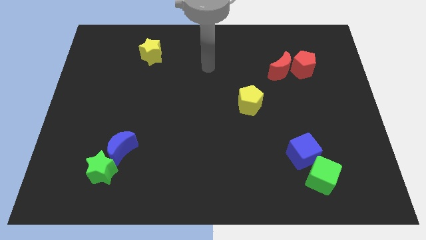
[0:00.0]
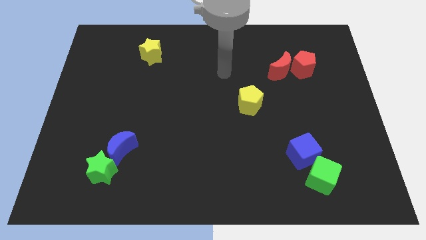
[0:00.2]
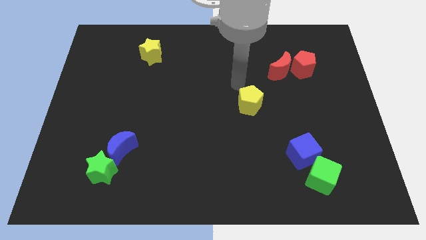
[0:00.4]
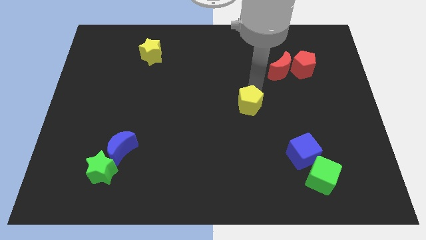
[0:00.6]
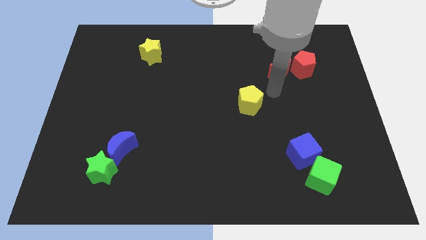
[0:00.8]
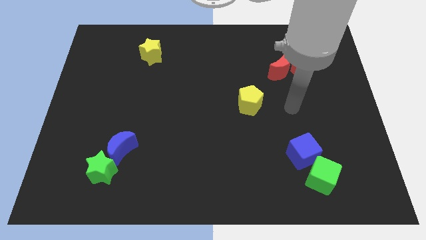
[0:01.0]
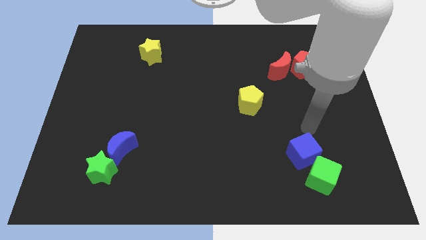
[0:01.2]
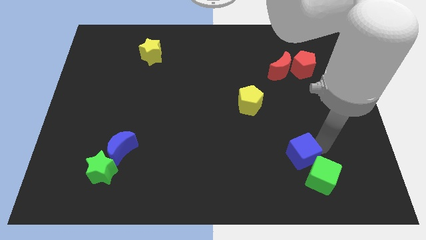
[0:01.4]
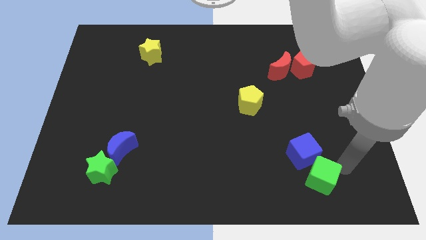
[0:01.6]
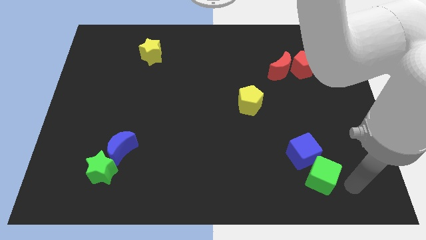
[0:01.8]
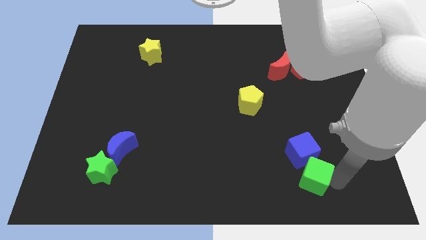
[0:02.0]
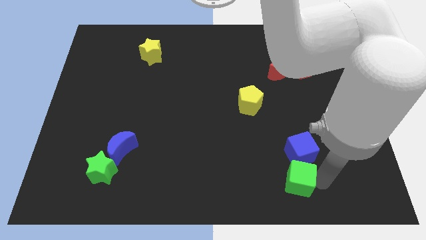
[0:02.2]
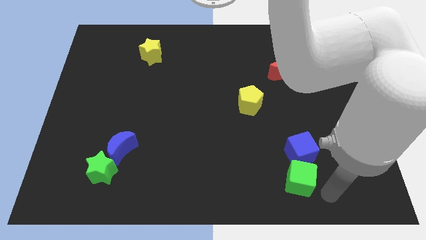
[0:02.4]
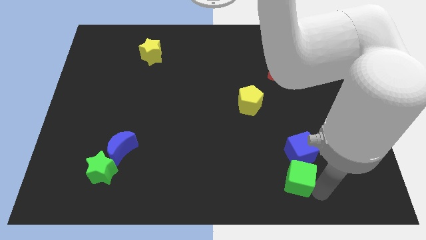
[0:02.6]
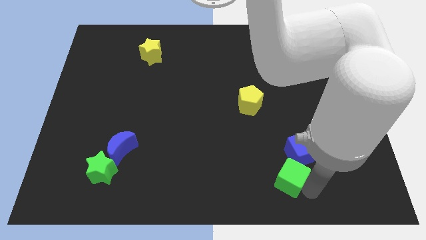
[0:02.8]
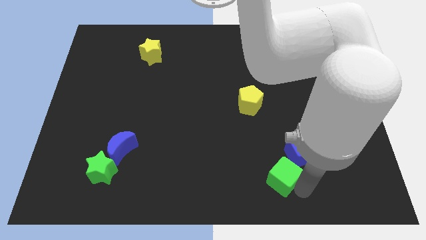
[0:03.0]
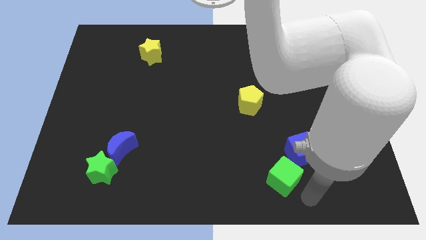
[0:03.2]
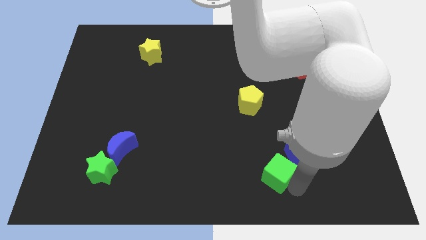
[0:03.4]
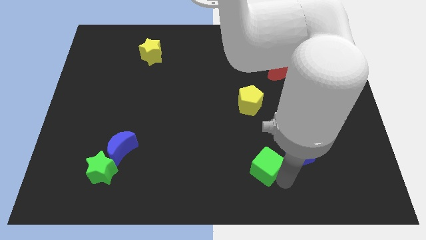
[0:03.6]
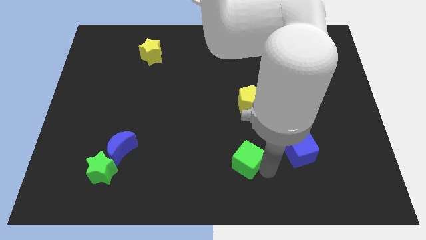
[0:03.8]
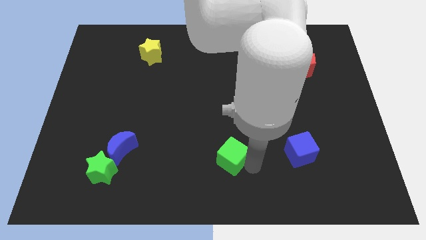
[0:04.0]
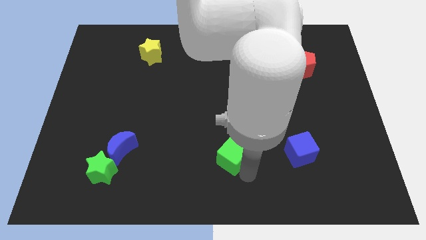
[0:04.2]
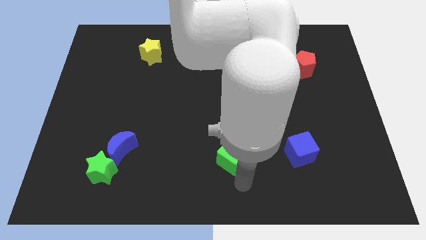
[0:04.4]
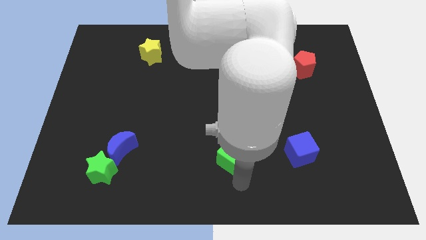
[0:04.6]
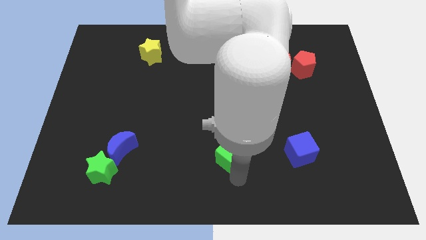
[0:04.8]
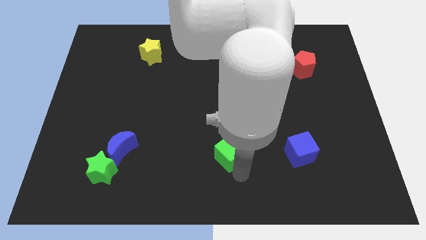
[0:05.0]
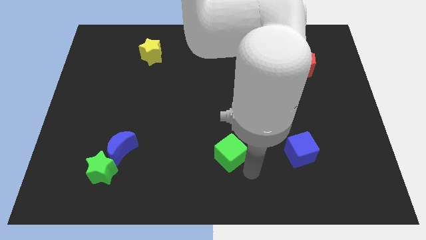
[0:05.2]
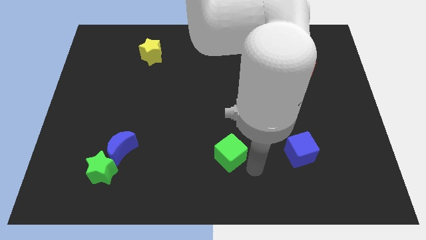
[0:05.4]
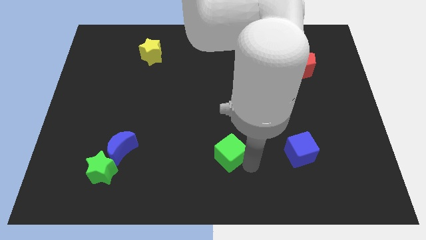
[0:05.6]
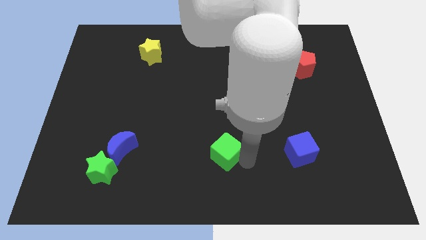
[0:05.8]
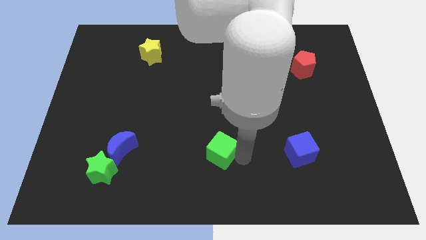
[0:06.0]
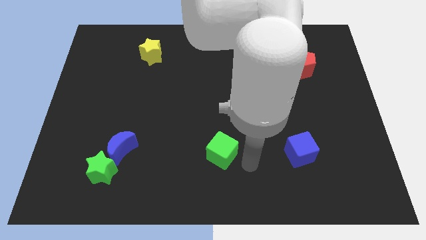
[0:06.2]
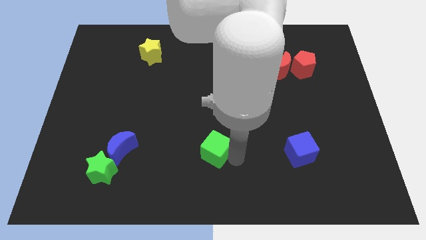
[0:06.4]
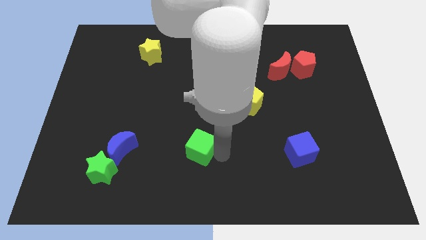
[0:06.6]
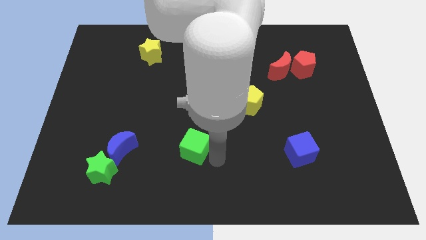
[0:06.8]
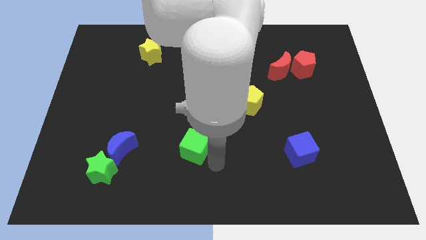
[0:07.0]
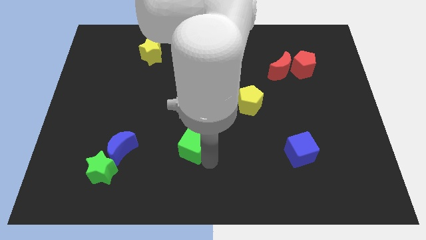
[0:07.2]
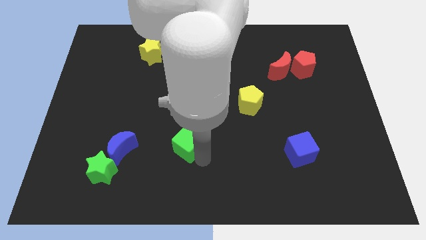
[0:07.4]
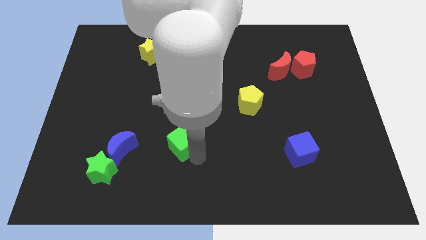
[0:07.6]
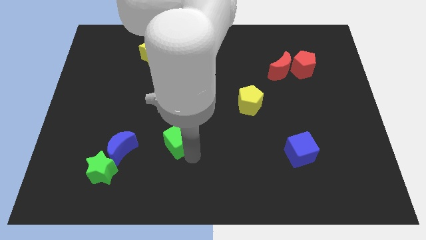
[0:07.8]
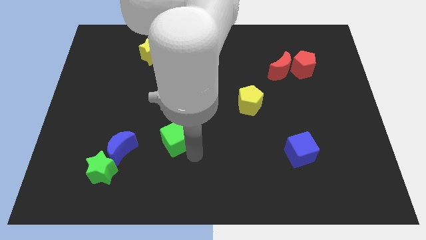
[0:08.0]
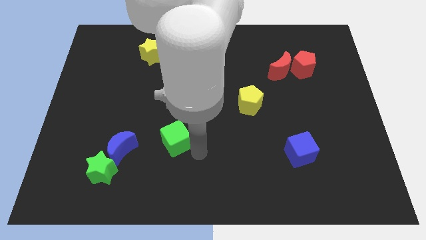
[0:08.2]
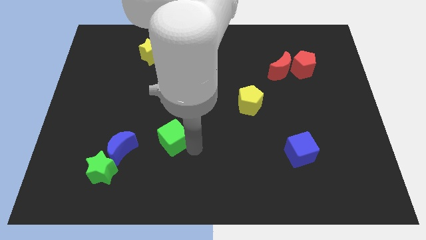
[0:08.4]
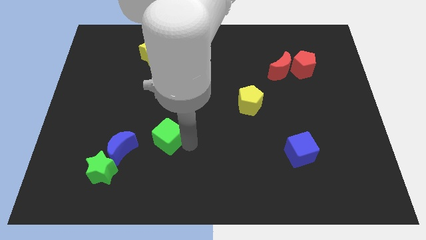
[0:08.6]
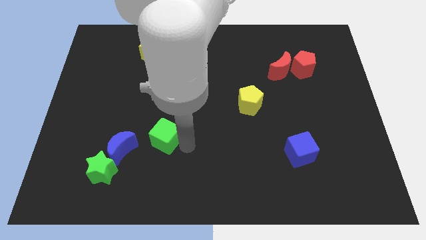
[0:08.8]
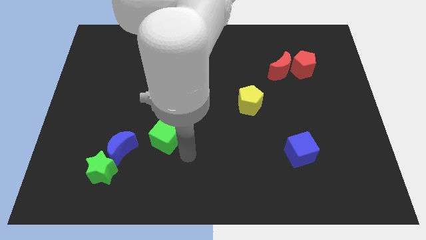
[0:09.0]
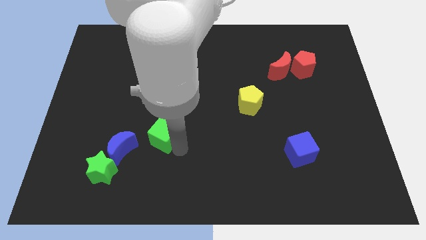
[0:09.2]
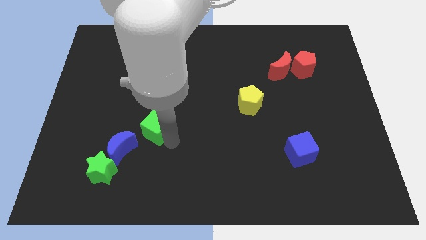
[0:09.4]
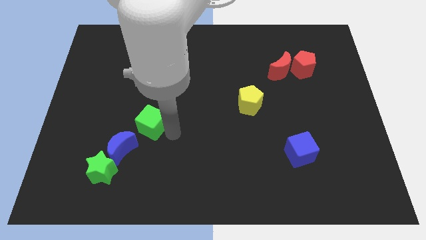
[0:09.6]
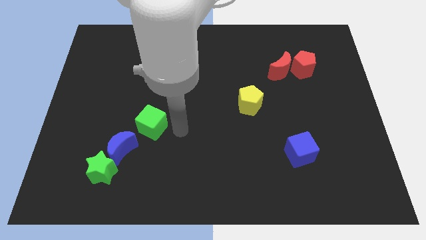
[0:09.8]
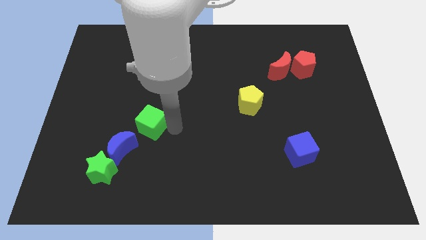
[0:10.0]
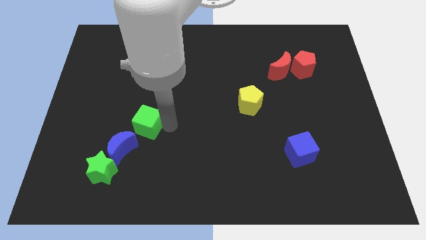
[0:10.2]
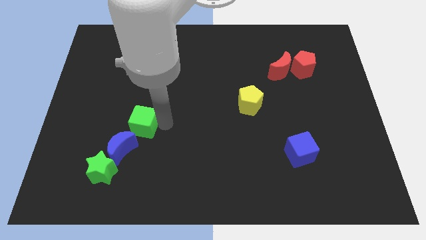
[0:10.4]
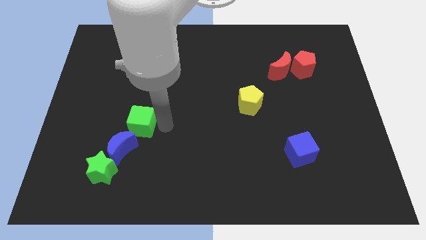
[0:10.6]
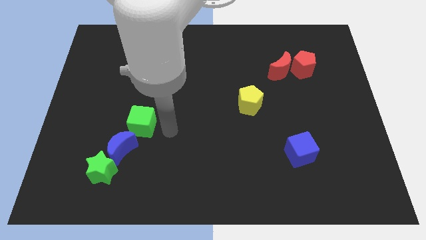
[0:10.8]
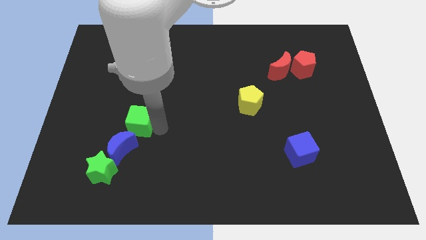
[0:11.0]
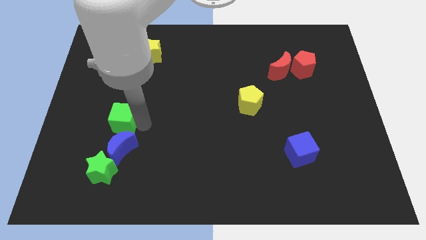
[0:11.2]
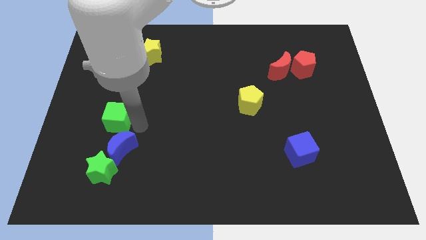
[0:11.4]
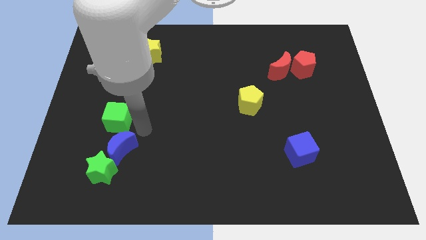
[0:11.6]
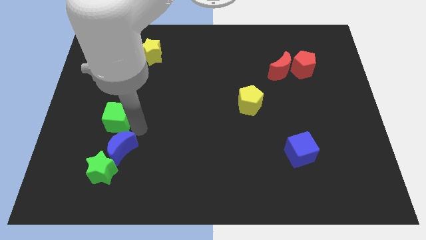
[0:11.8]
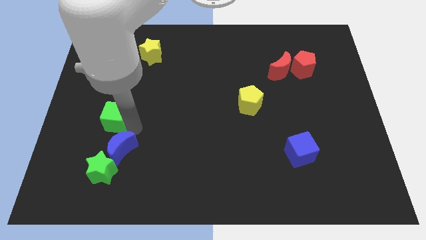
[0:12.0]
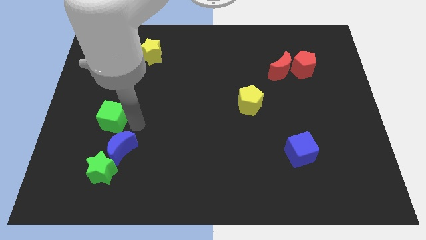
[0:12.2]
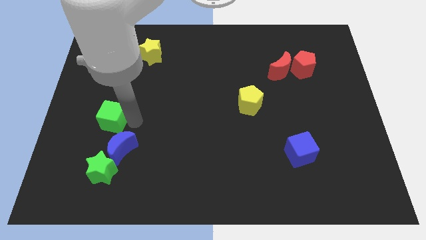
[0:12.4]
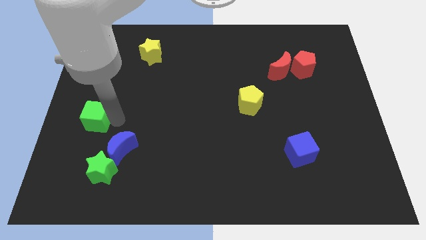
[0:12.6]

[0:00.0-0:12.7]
move the green cube to the left side of the board

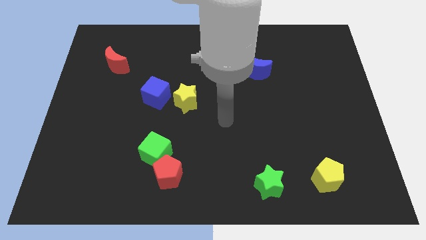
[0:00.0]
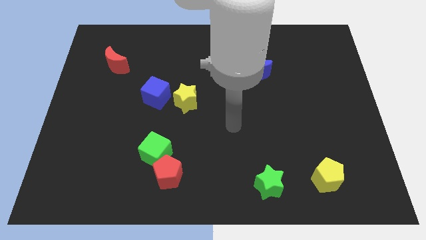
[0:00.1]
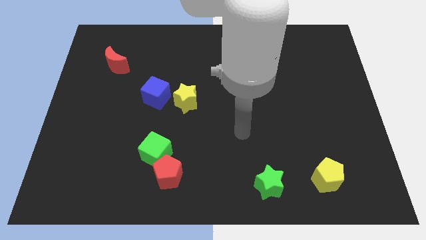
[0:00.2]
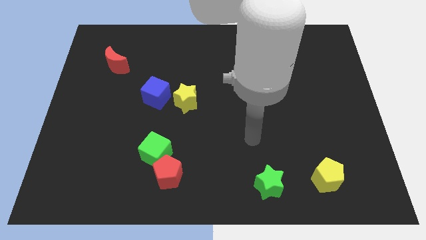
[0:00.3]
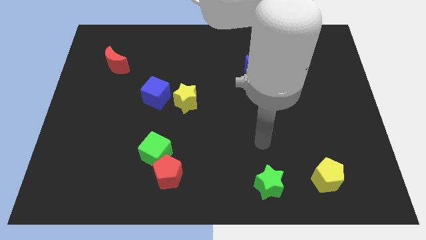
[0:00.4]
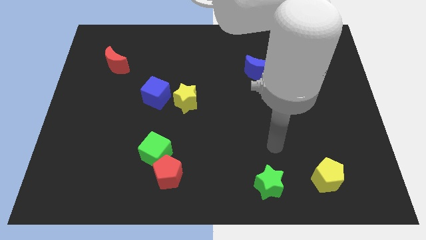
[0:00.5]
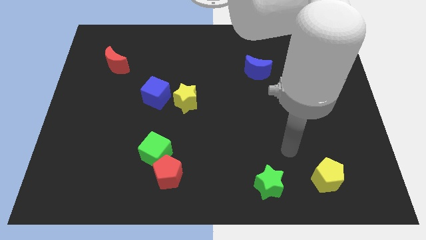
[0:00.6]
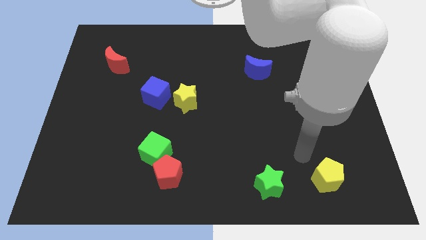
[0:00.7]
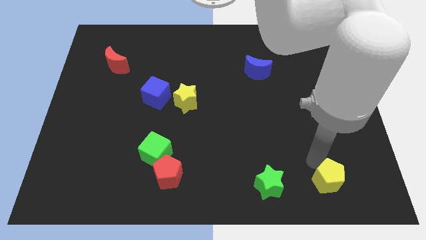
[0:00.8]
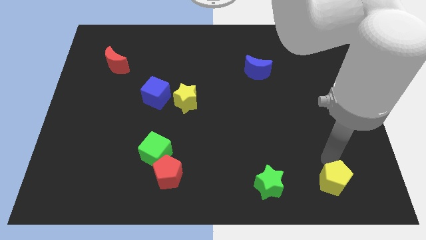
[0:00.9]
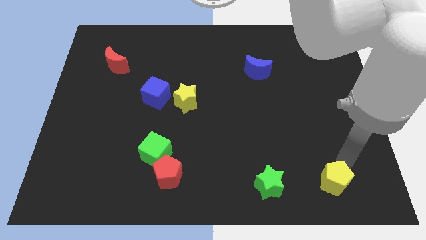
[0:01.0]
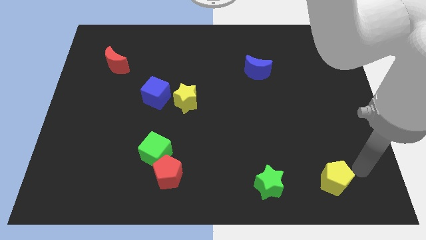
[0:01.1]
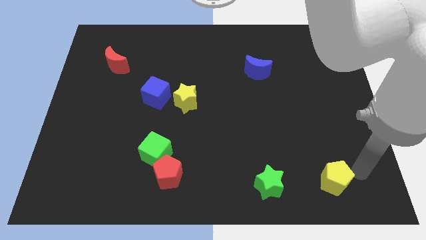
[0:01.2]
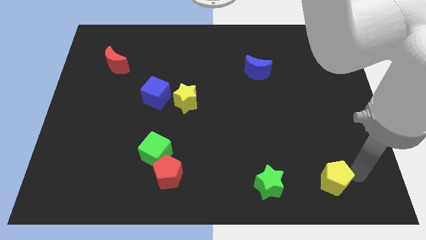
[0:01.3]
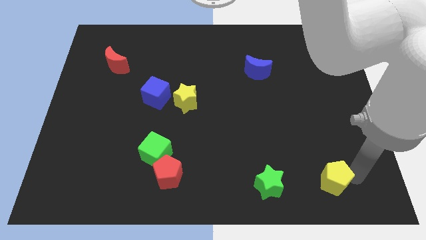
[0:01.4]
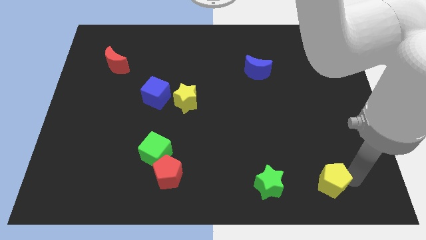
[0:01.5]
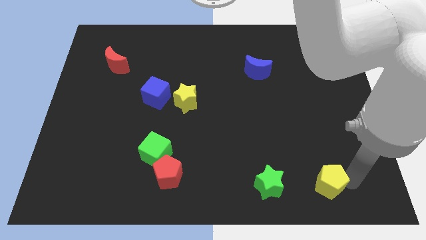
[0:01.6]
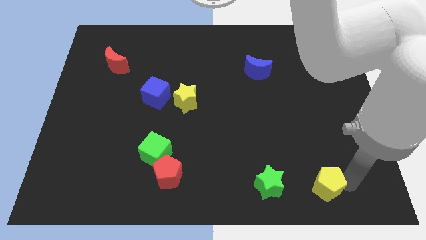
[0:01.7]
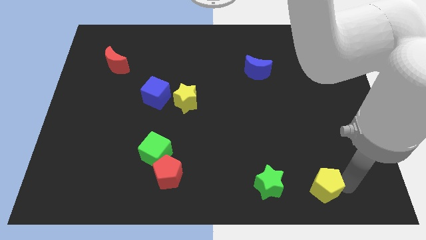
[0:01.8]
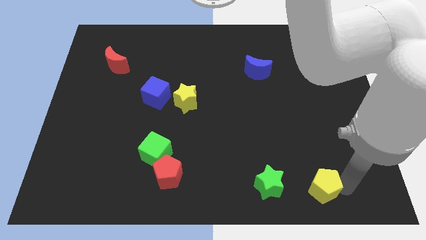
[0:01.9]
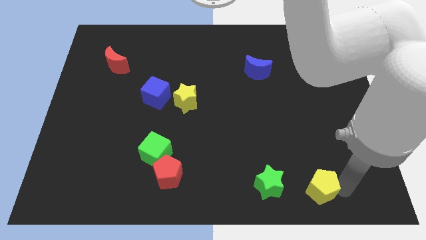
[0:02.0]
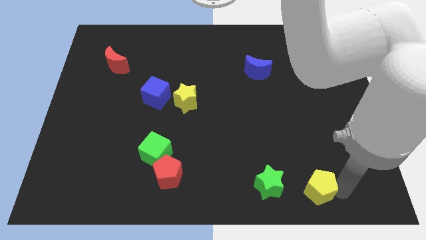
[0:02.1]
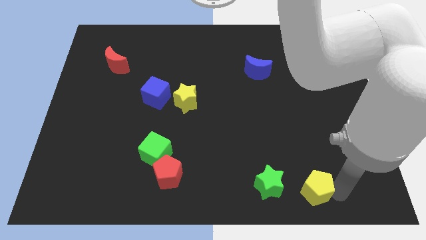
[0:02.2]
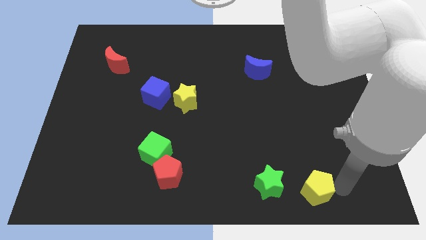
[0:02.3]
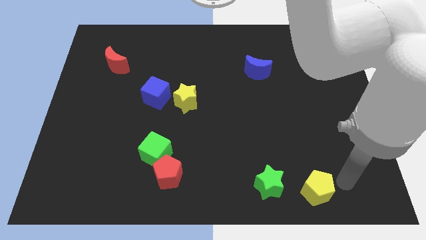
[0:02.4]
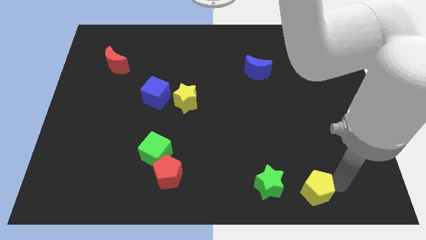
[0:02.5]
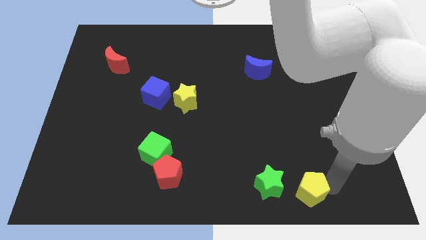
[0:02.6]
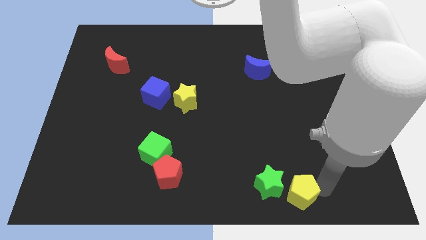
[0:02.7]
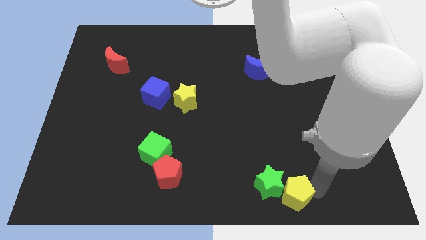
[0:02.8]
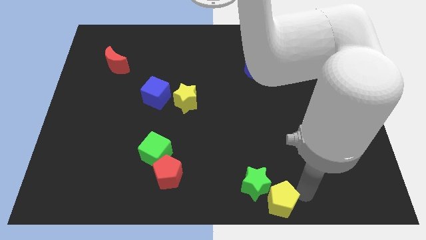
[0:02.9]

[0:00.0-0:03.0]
move the yellow pentagon to the bottom side
